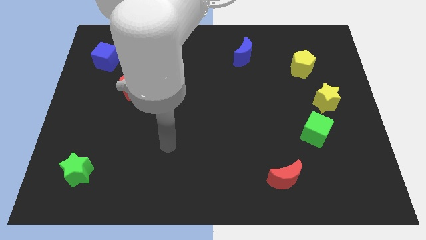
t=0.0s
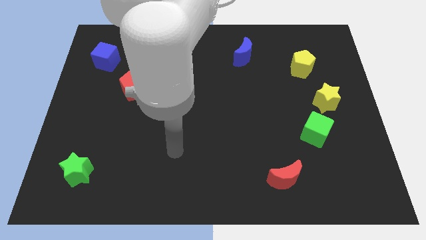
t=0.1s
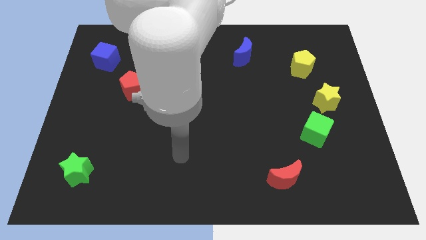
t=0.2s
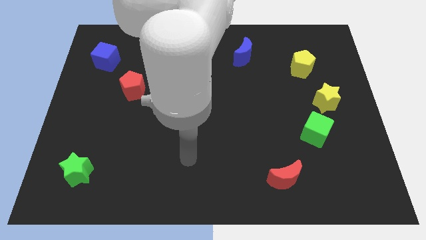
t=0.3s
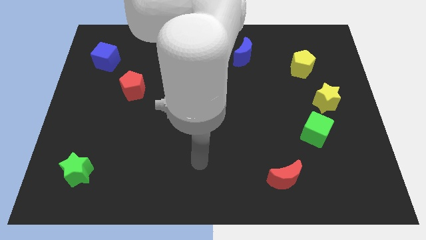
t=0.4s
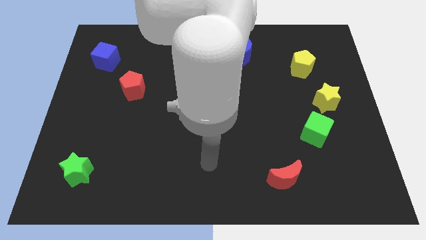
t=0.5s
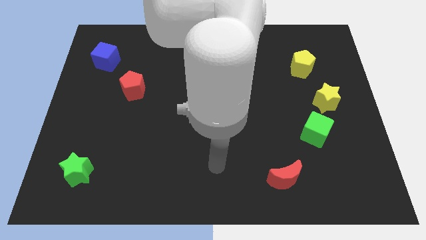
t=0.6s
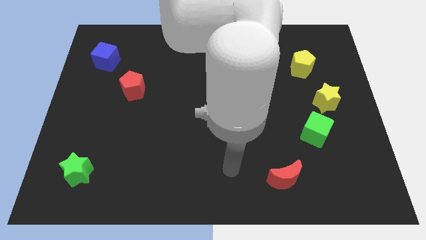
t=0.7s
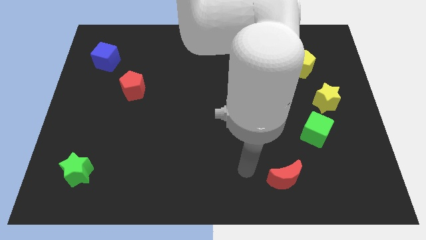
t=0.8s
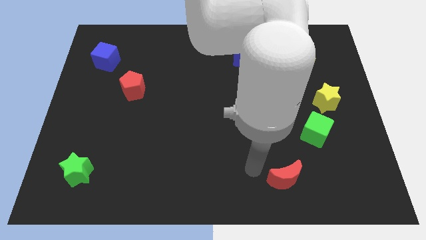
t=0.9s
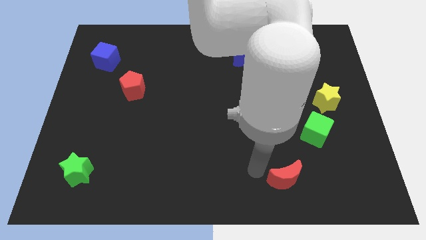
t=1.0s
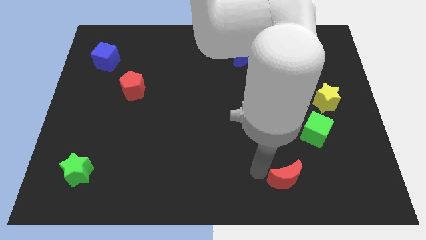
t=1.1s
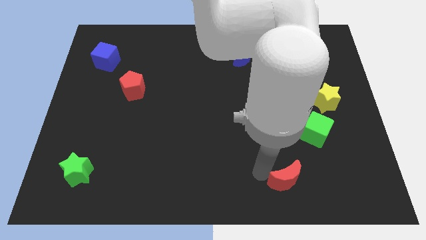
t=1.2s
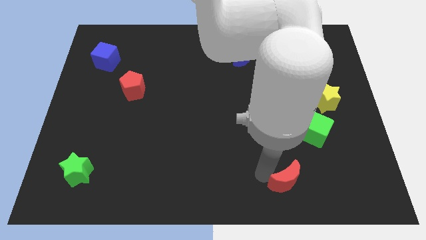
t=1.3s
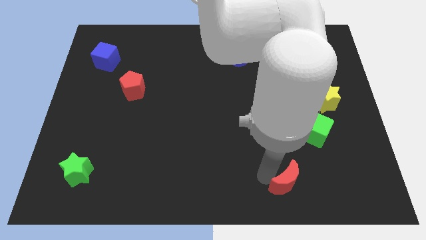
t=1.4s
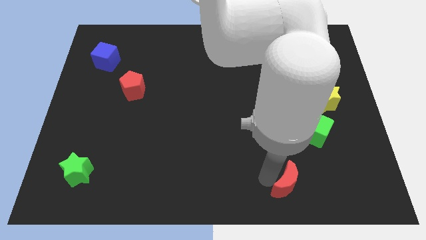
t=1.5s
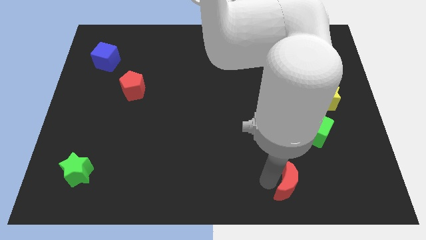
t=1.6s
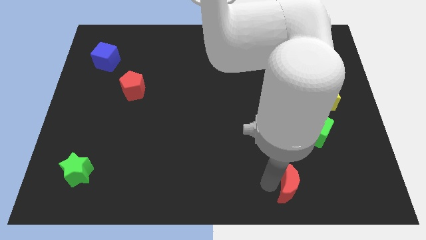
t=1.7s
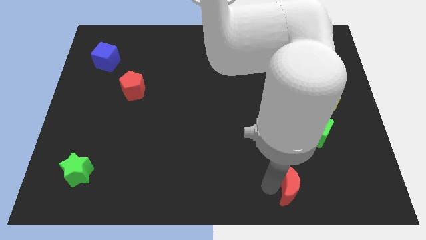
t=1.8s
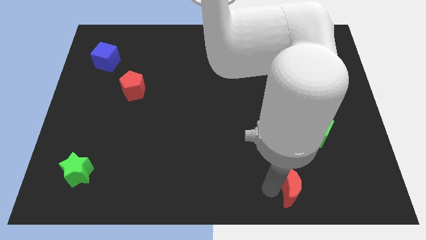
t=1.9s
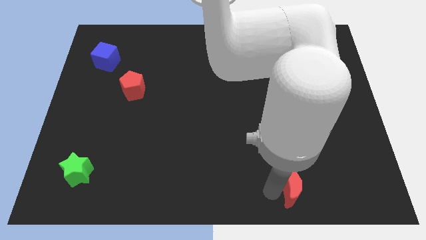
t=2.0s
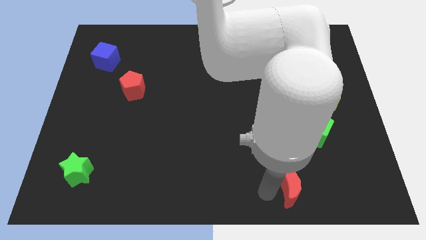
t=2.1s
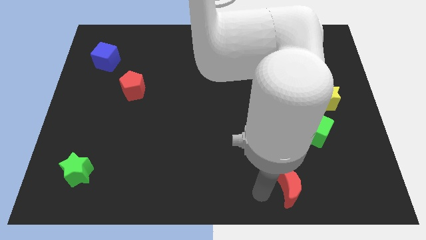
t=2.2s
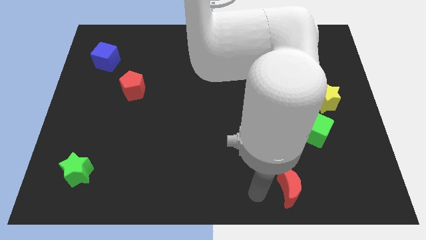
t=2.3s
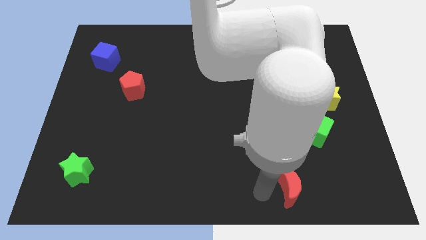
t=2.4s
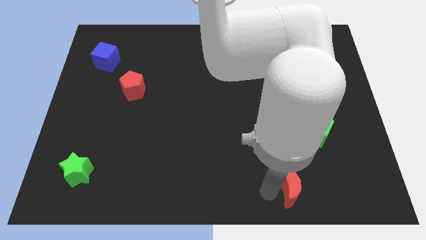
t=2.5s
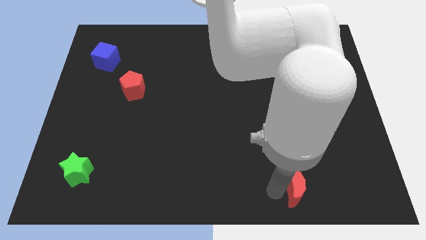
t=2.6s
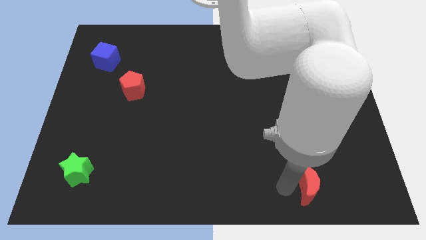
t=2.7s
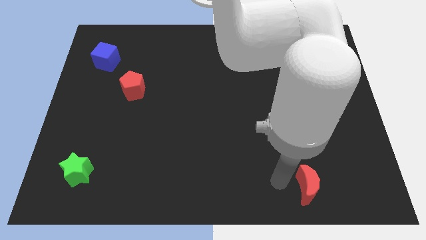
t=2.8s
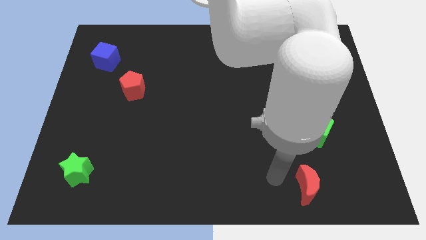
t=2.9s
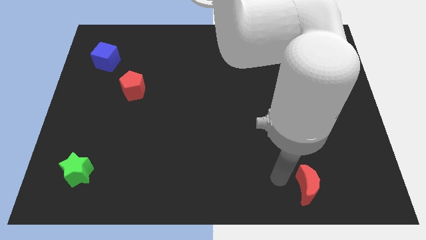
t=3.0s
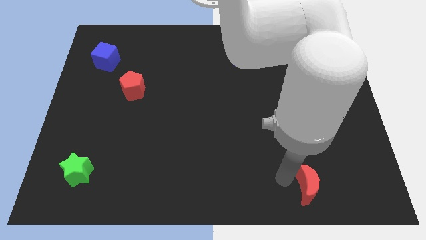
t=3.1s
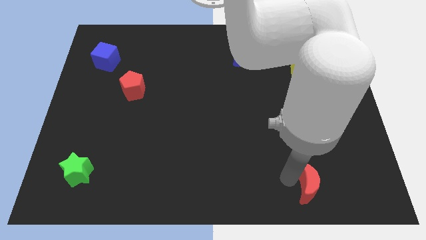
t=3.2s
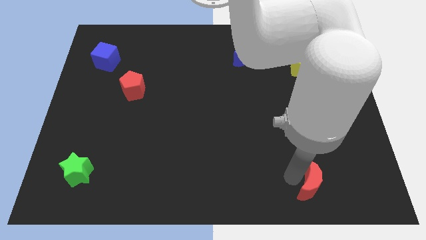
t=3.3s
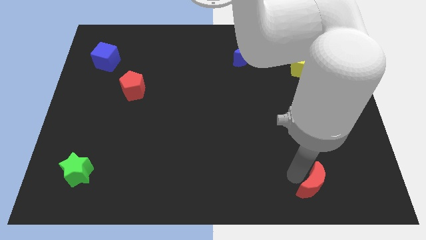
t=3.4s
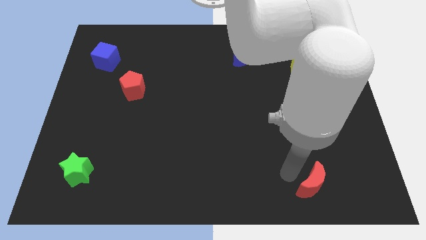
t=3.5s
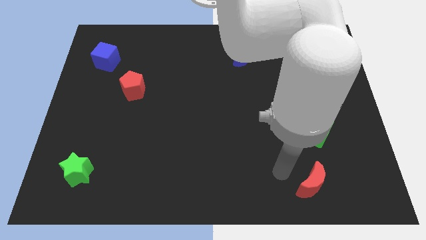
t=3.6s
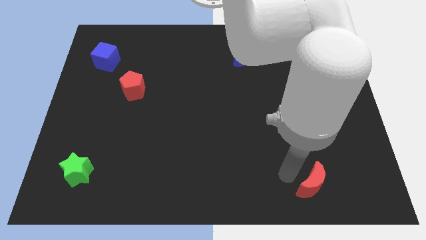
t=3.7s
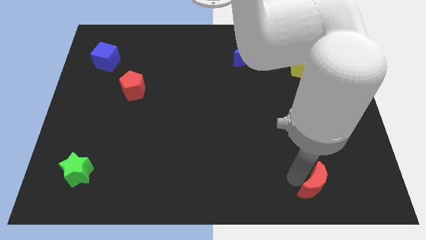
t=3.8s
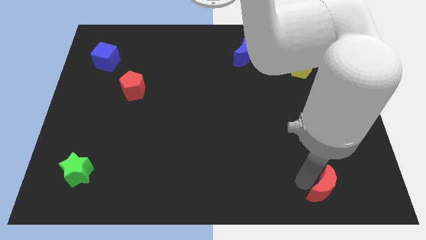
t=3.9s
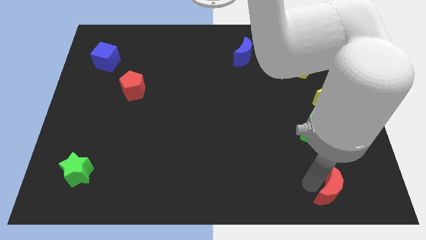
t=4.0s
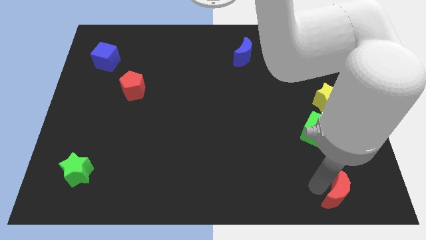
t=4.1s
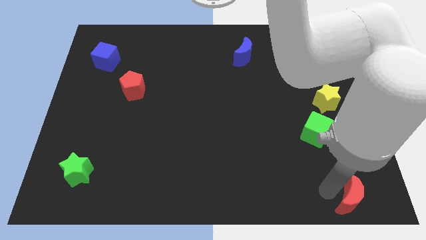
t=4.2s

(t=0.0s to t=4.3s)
slide the red moon to the bottom right

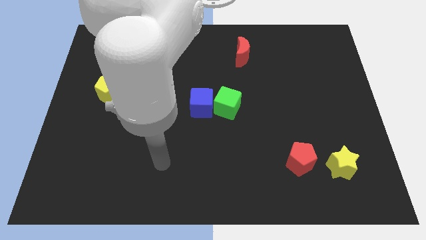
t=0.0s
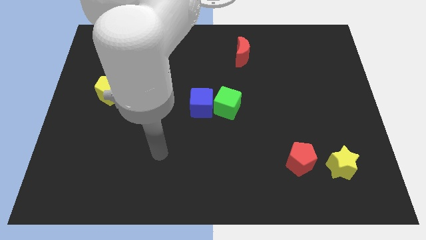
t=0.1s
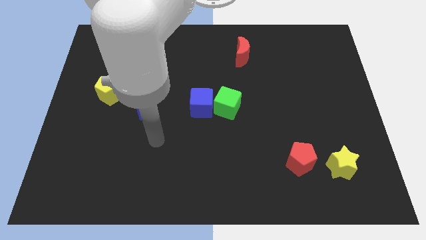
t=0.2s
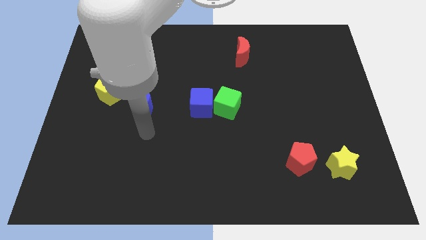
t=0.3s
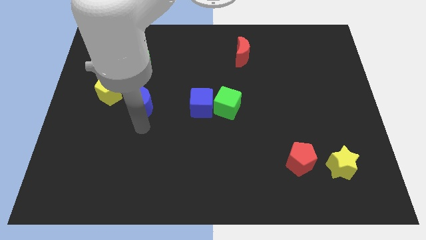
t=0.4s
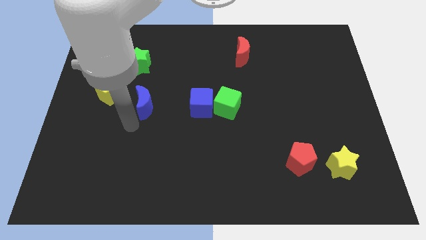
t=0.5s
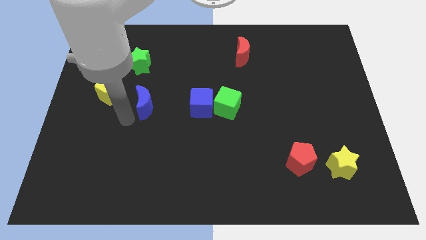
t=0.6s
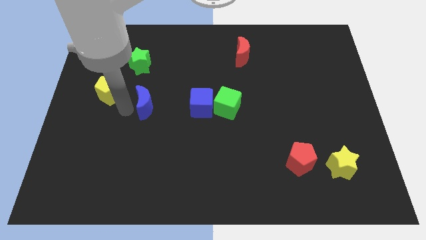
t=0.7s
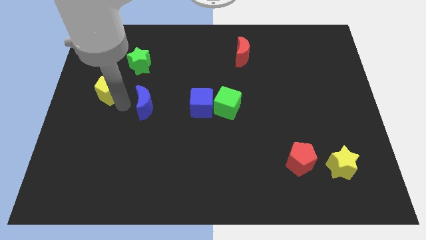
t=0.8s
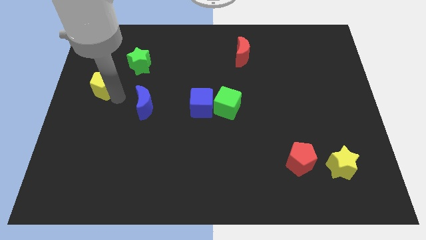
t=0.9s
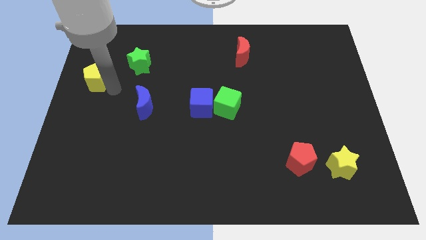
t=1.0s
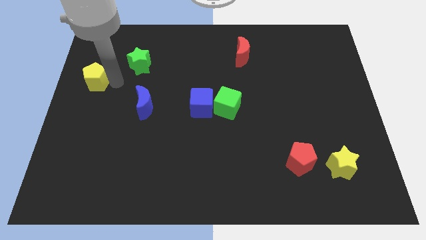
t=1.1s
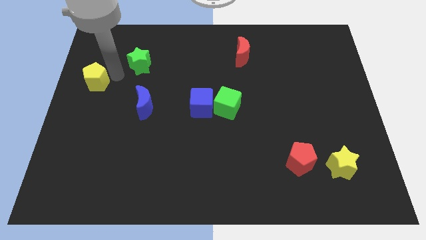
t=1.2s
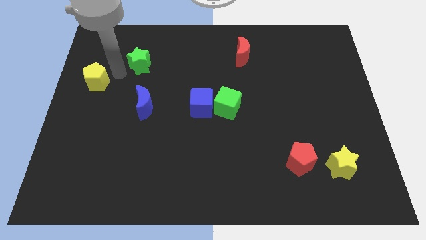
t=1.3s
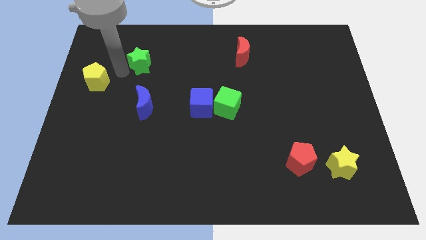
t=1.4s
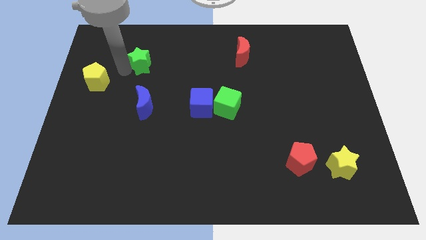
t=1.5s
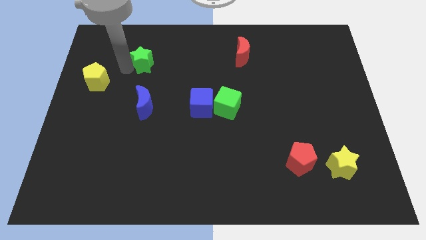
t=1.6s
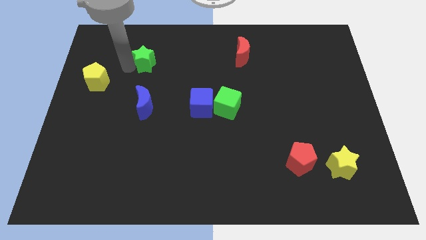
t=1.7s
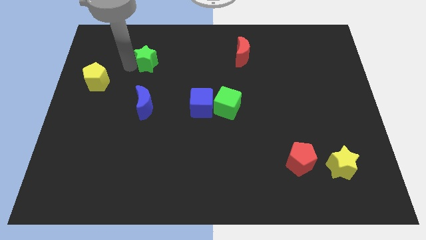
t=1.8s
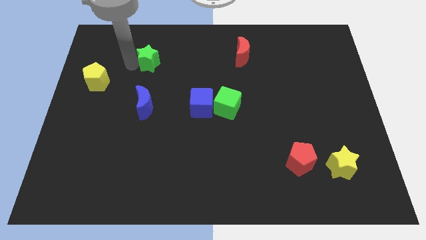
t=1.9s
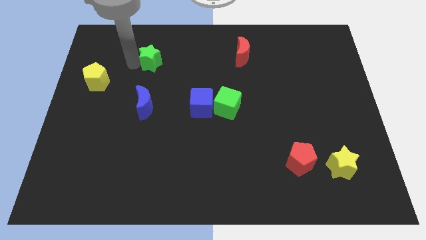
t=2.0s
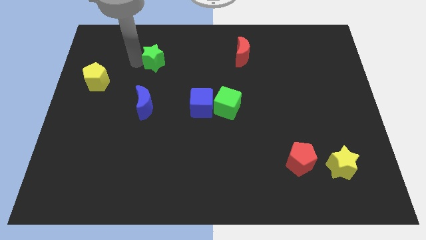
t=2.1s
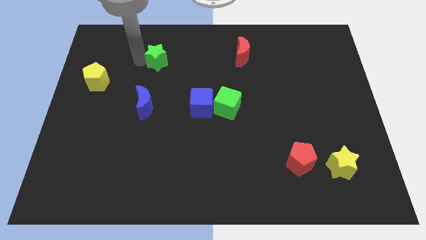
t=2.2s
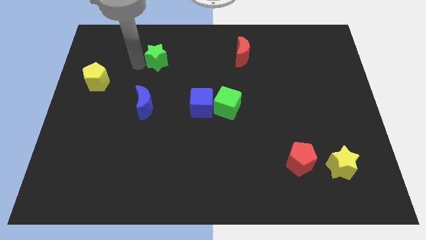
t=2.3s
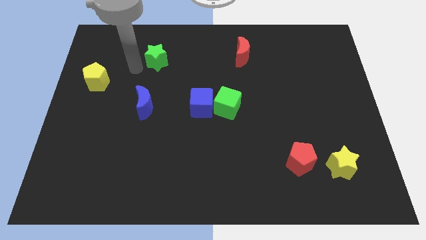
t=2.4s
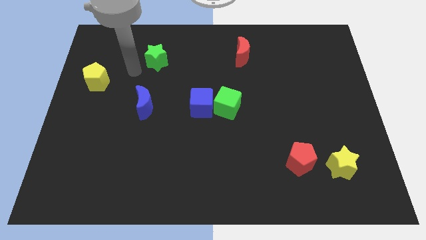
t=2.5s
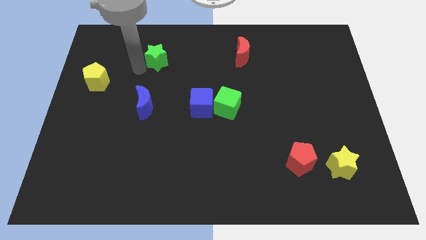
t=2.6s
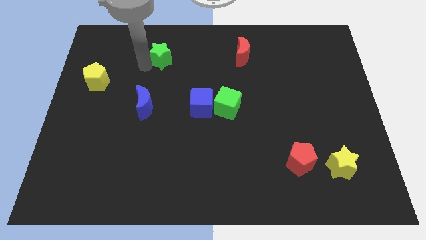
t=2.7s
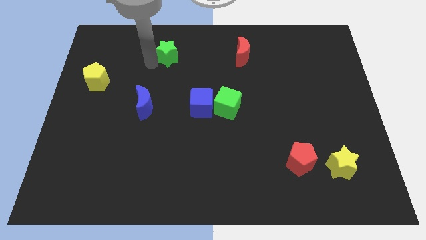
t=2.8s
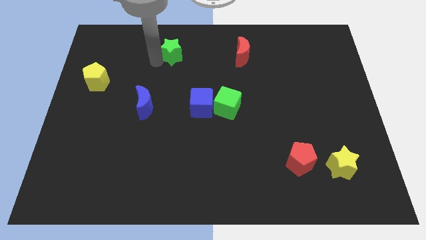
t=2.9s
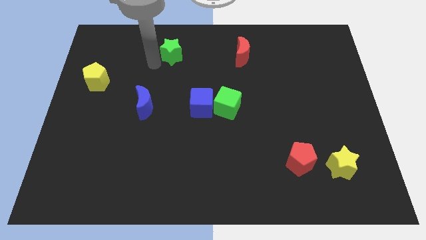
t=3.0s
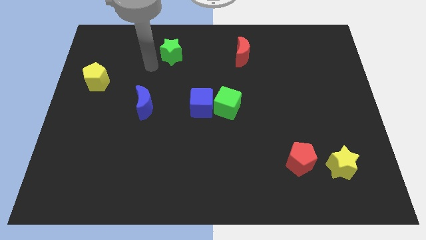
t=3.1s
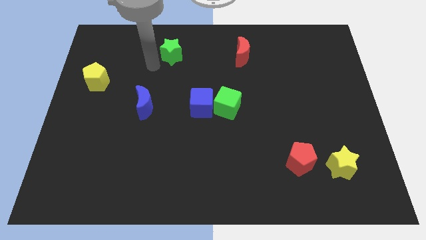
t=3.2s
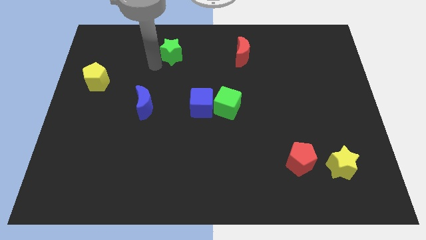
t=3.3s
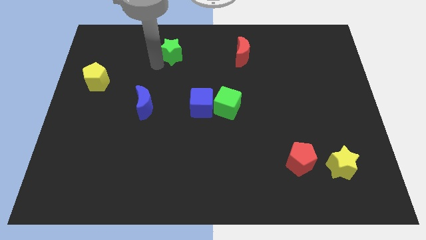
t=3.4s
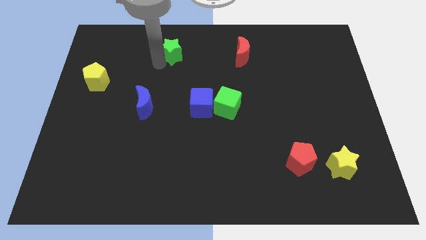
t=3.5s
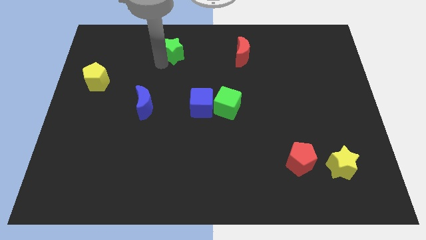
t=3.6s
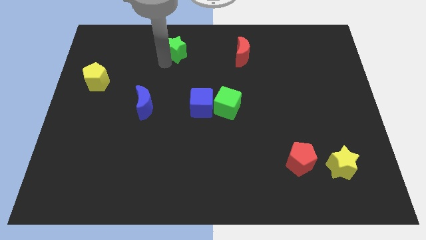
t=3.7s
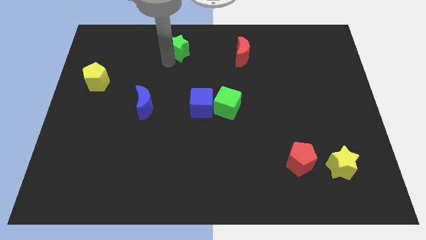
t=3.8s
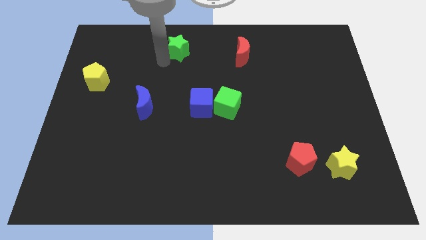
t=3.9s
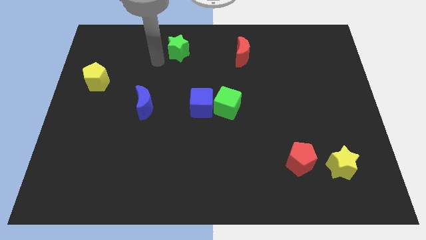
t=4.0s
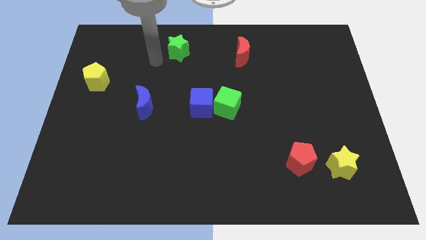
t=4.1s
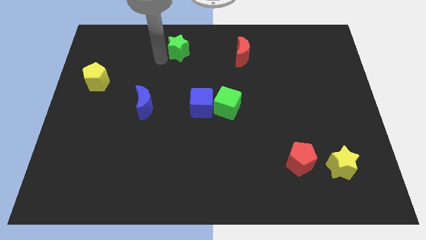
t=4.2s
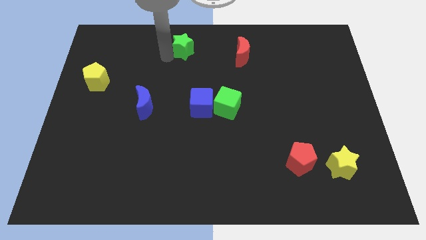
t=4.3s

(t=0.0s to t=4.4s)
put the green star to the top
